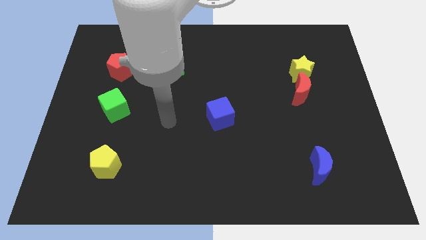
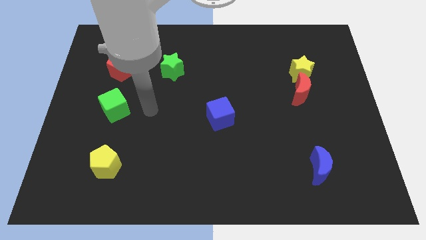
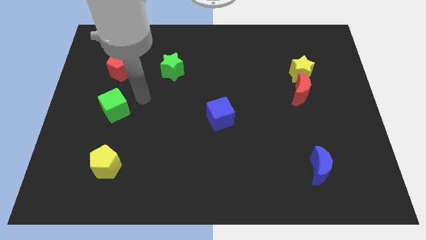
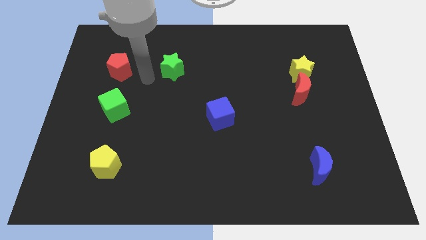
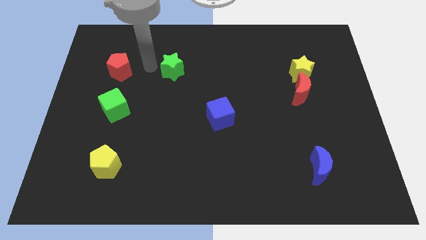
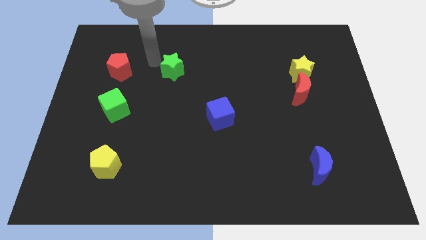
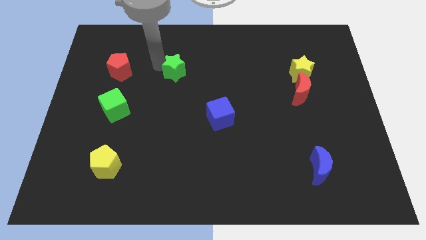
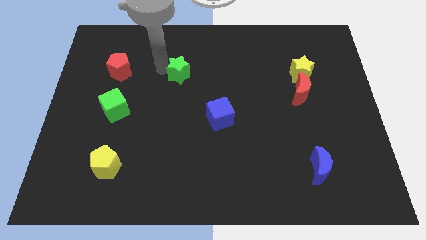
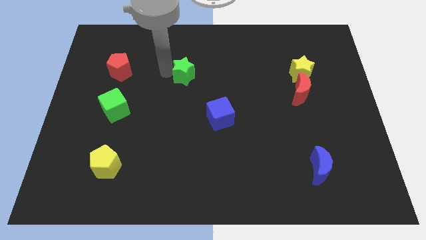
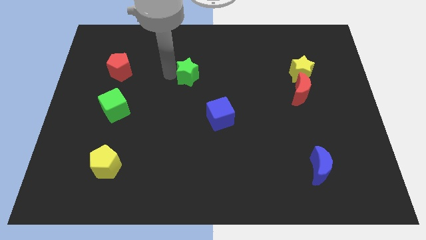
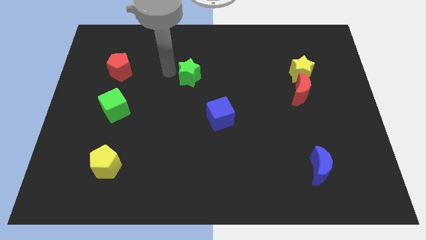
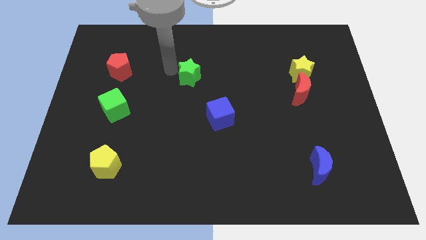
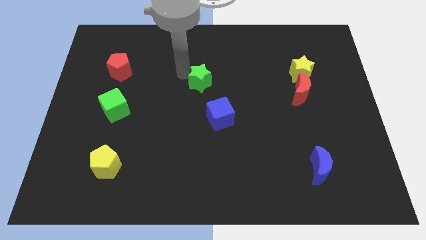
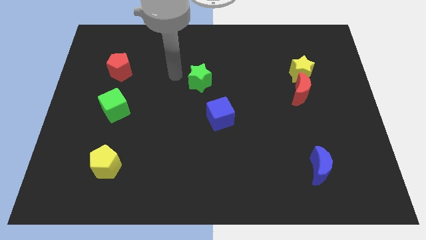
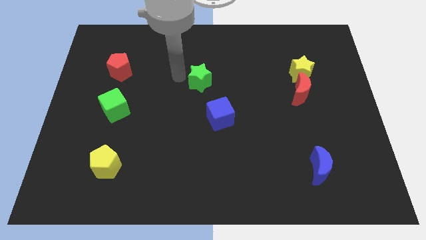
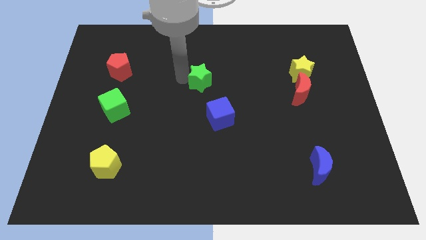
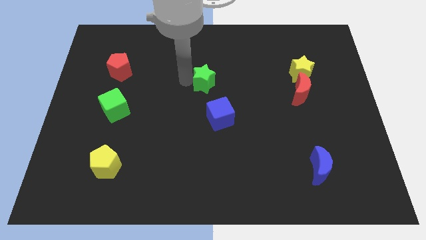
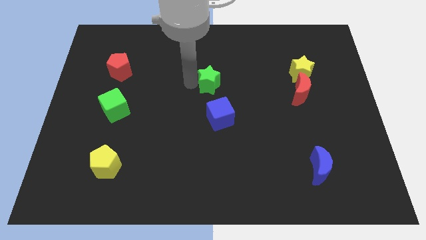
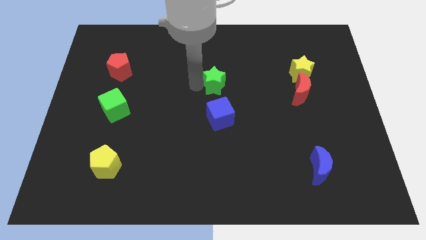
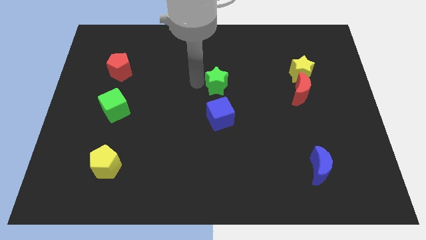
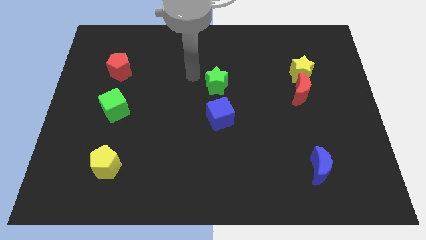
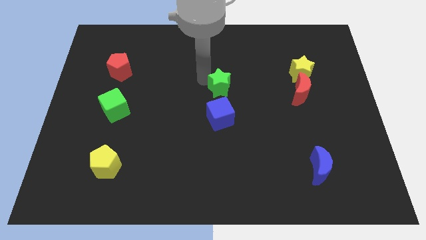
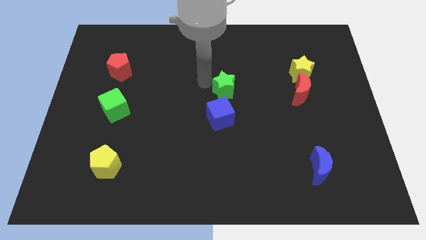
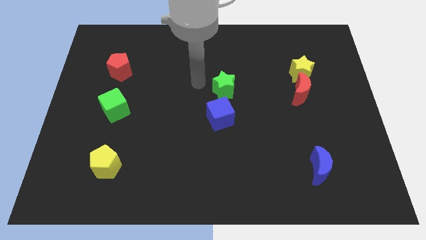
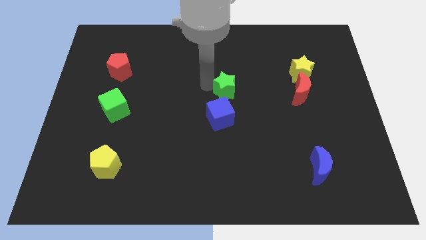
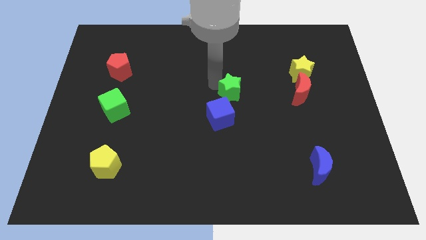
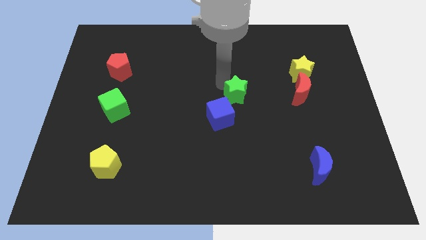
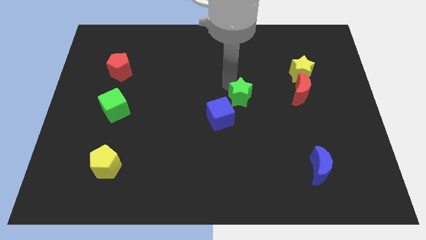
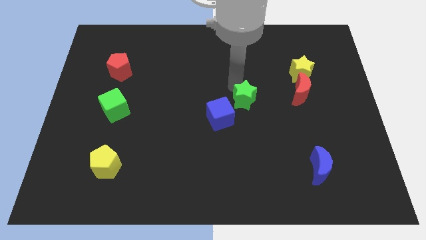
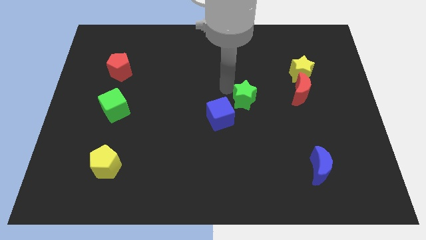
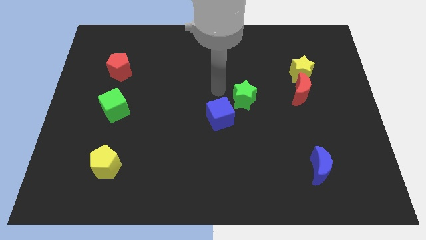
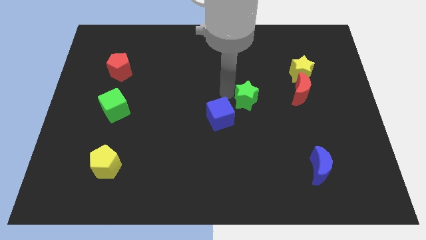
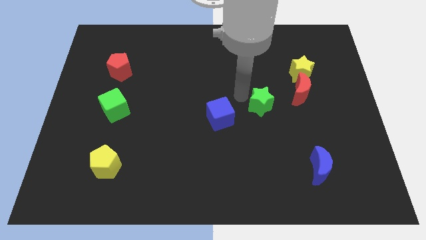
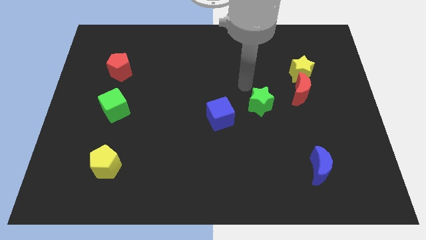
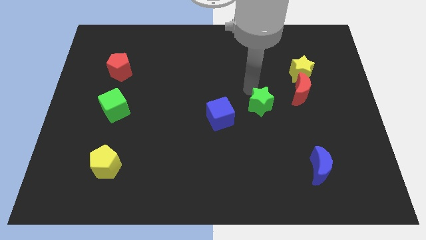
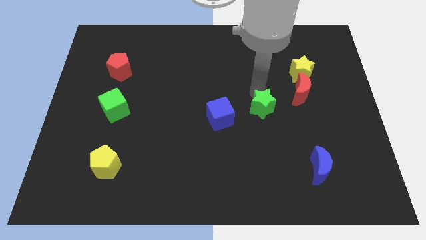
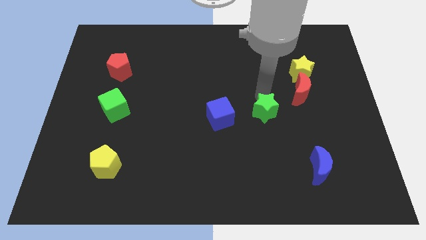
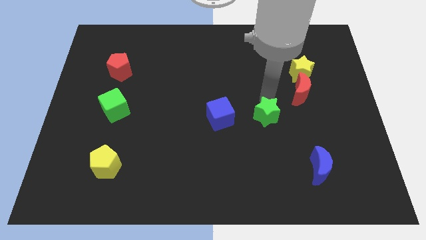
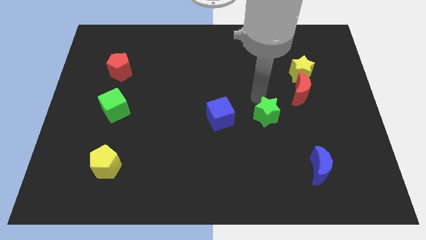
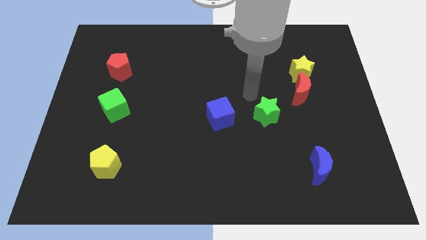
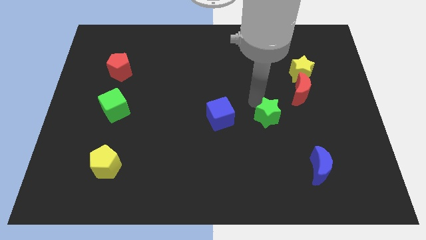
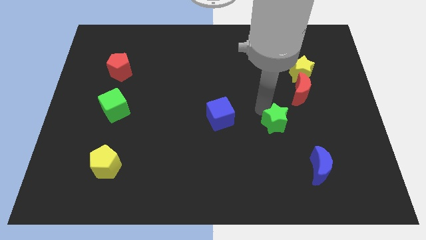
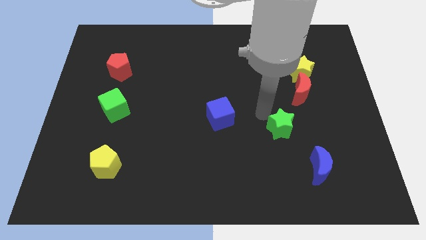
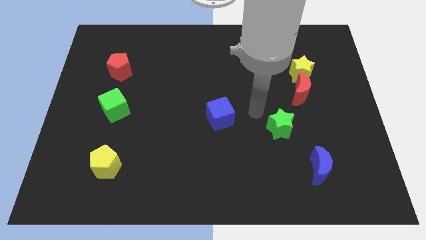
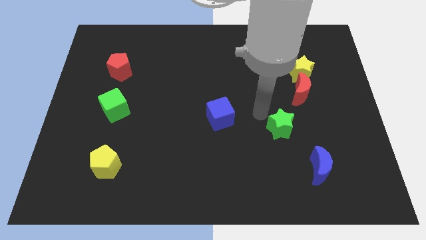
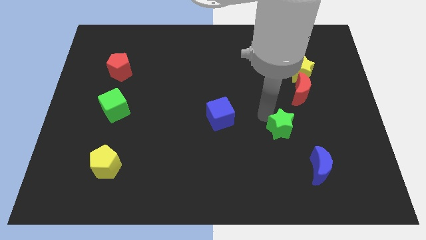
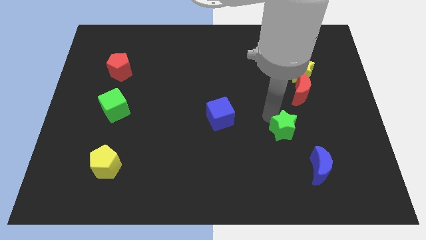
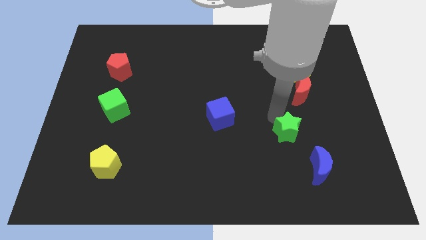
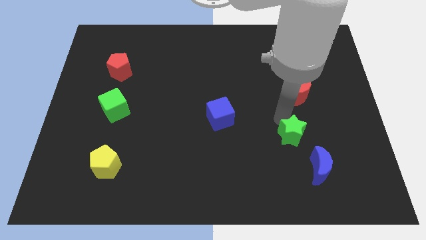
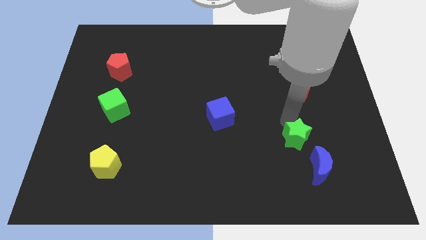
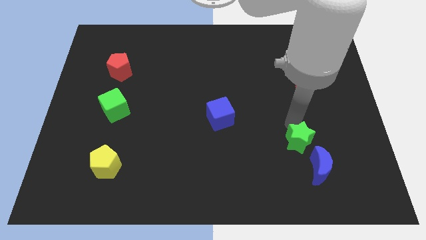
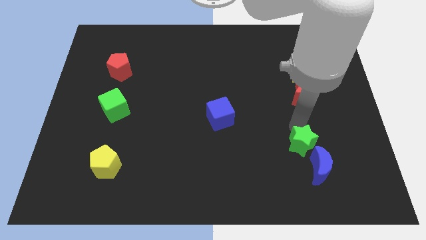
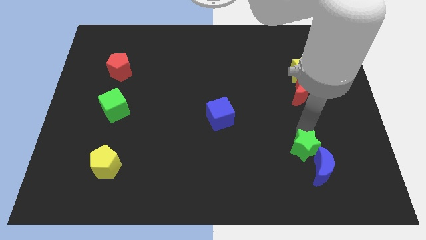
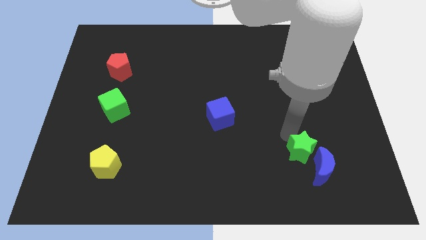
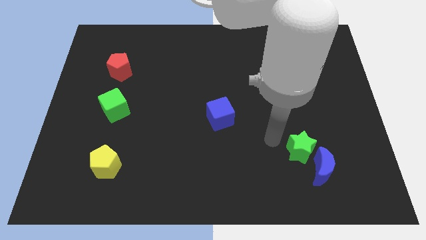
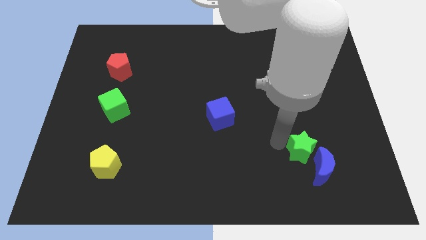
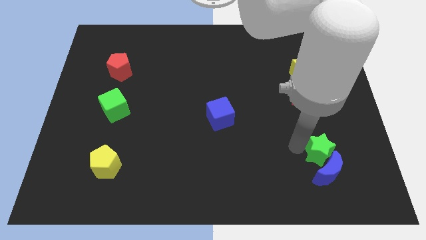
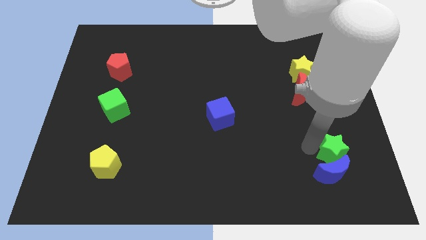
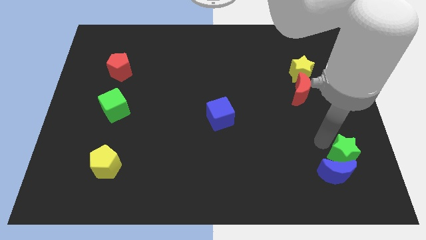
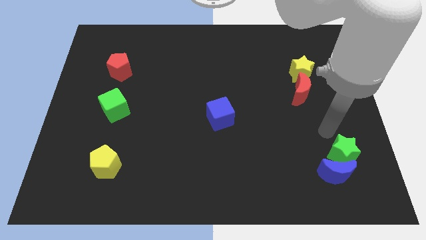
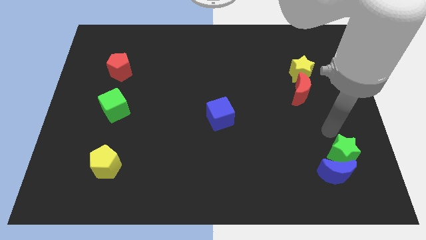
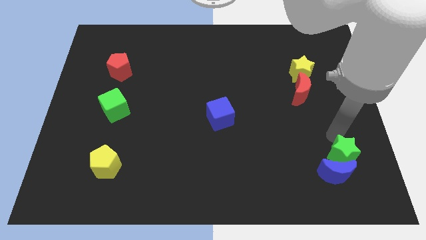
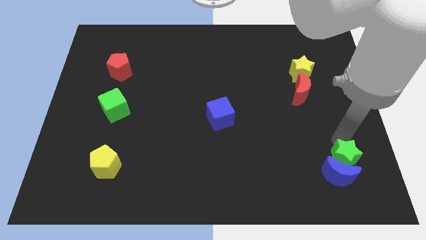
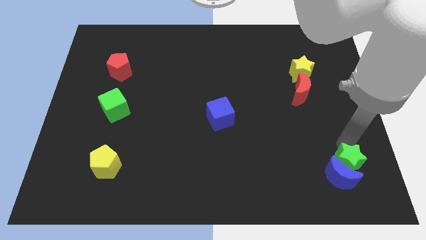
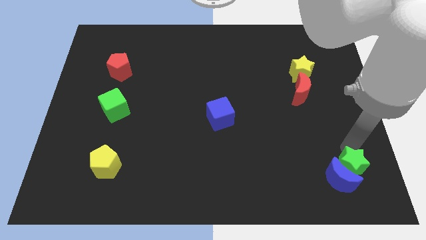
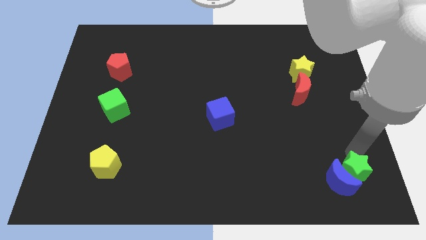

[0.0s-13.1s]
move the green star to the bottom right of the board

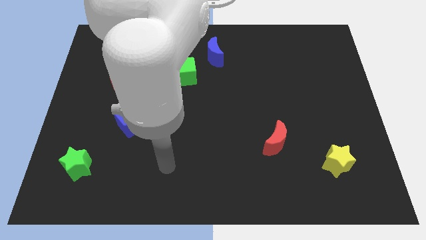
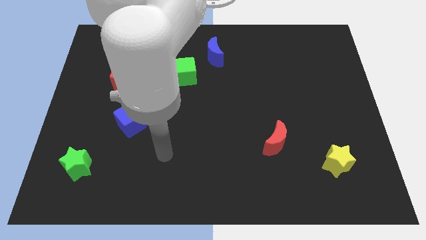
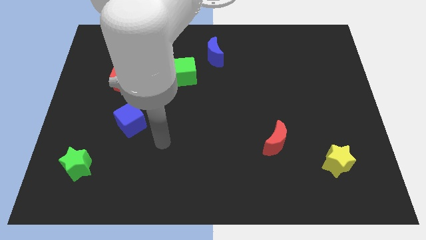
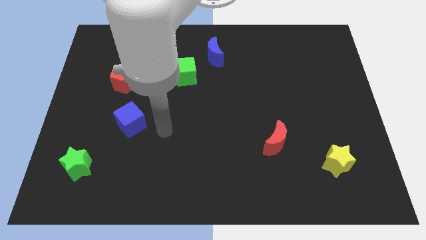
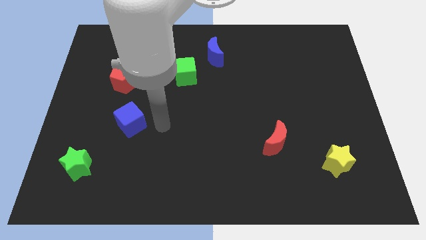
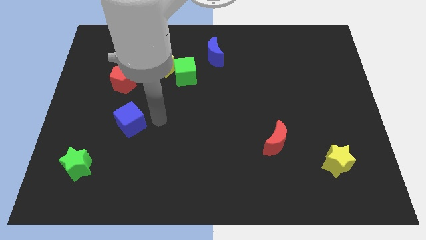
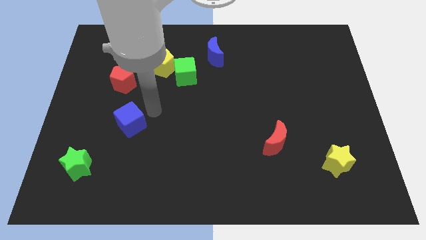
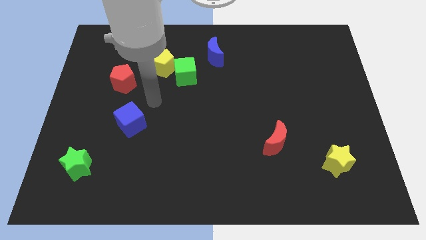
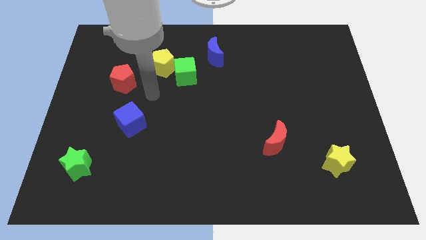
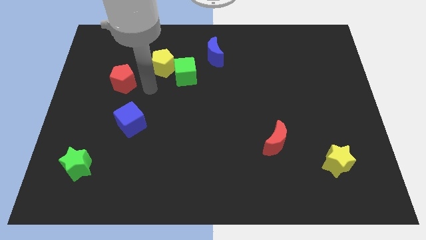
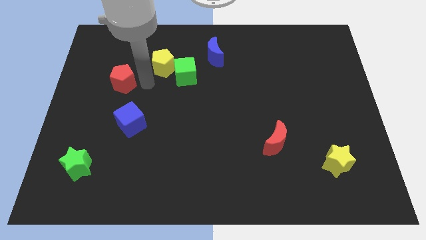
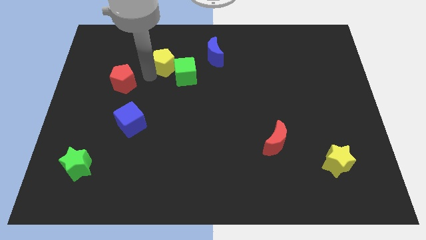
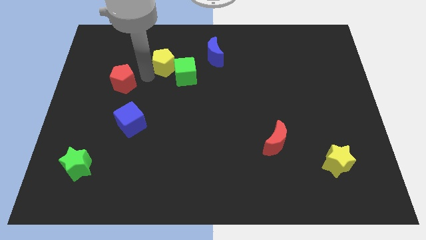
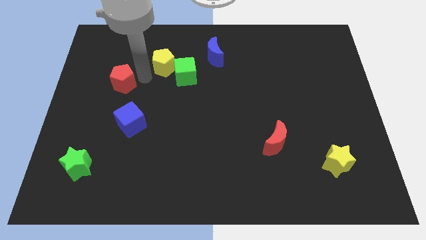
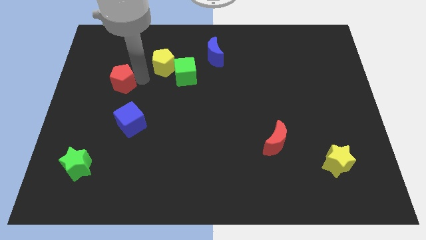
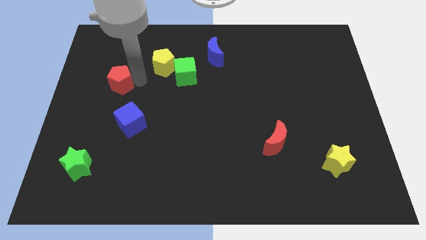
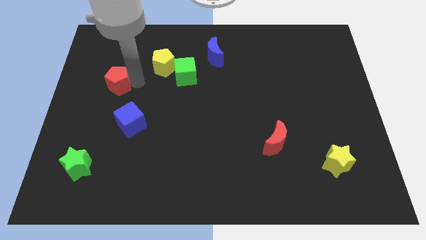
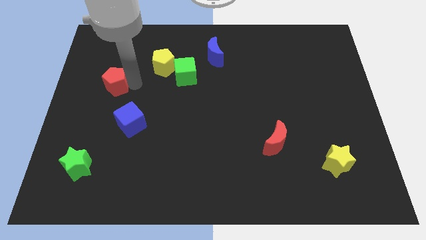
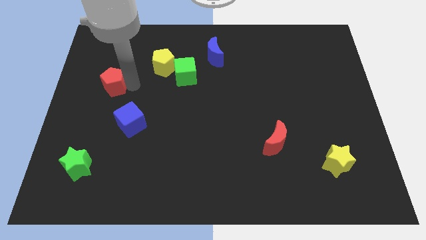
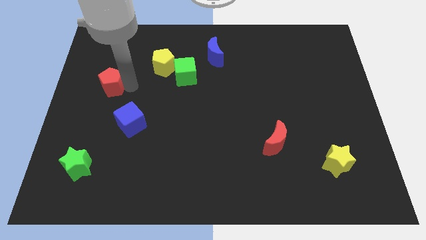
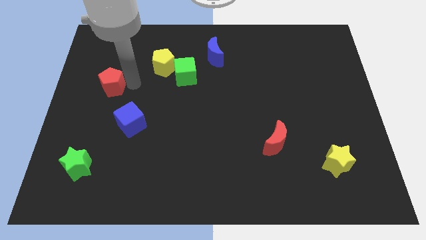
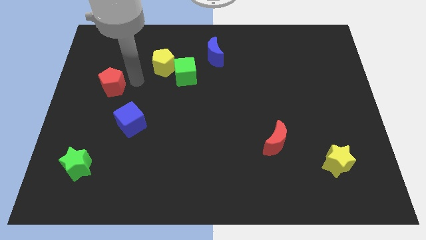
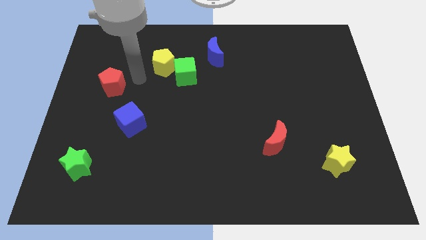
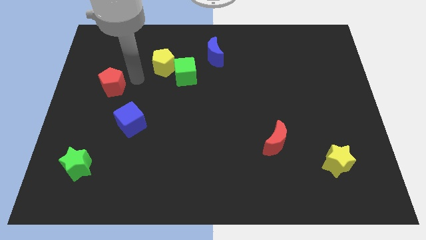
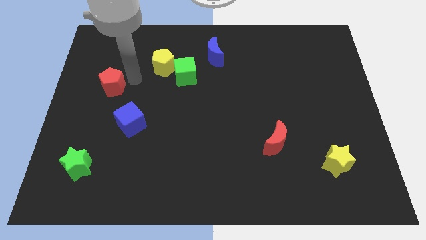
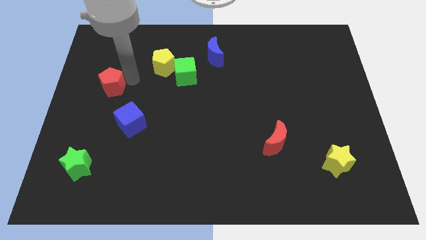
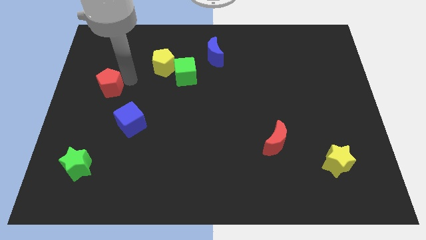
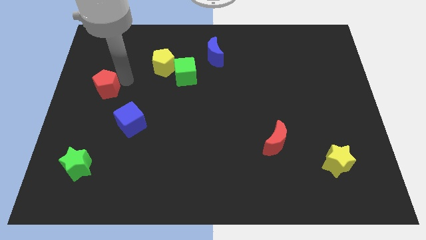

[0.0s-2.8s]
push the red pentagon to the left side
